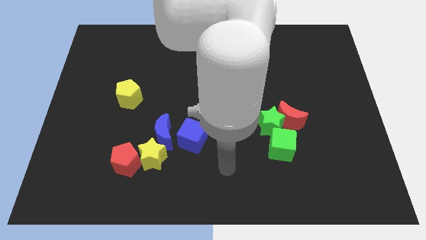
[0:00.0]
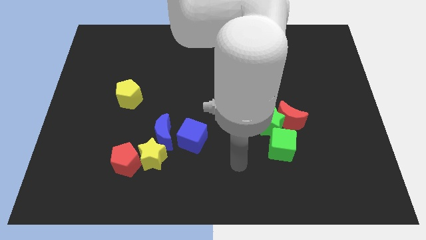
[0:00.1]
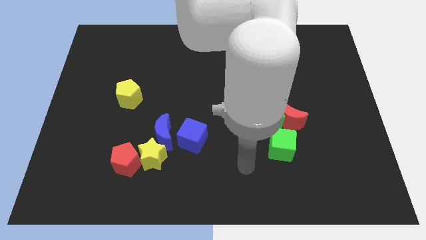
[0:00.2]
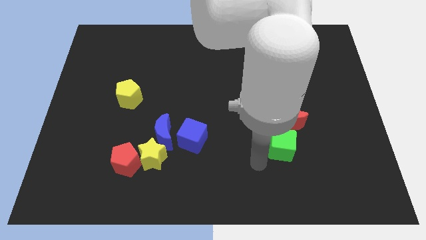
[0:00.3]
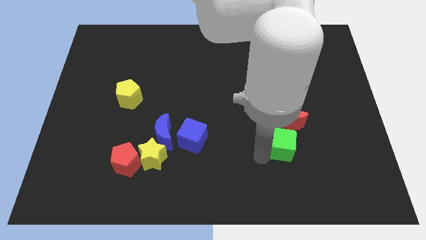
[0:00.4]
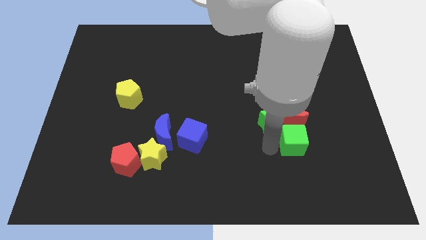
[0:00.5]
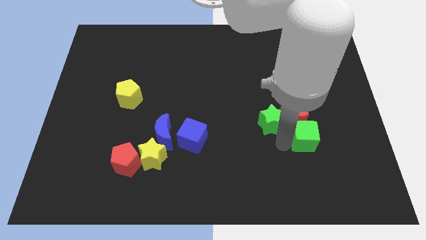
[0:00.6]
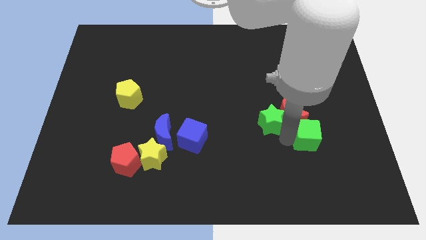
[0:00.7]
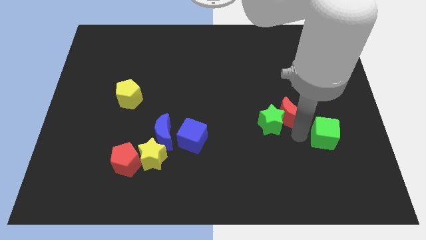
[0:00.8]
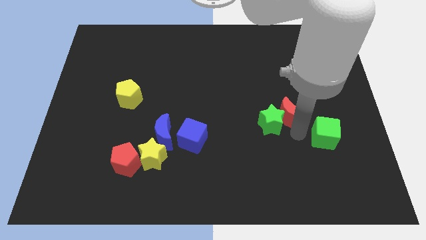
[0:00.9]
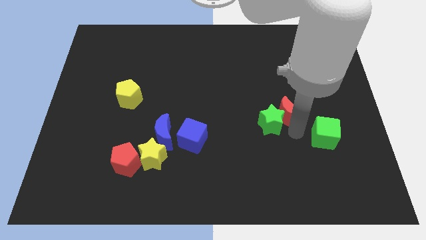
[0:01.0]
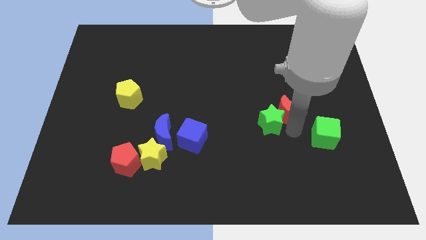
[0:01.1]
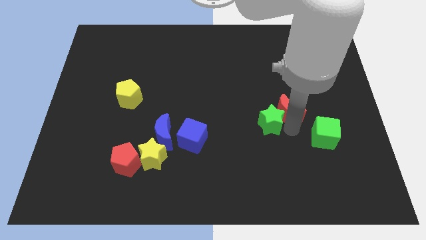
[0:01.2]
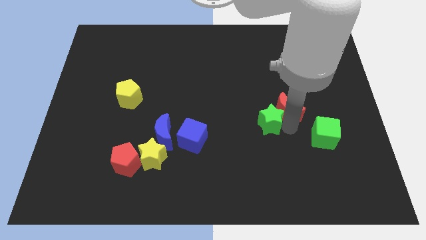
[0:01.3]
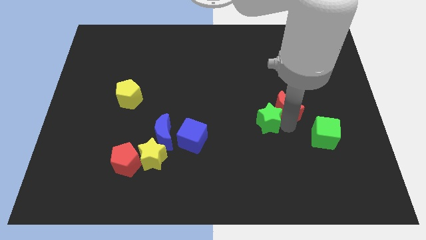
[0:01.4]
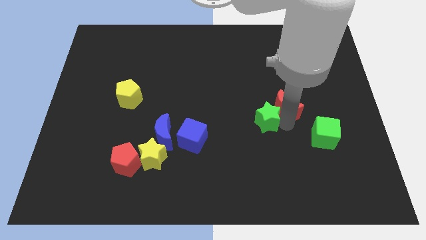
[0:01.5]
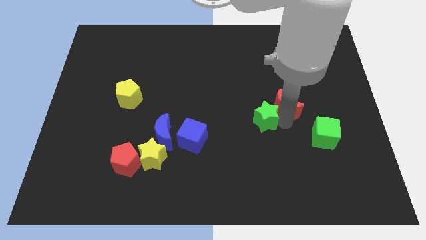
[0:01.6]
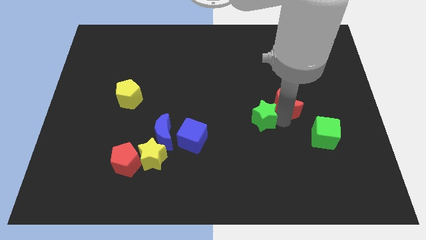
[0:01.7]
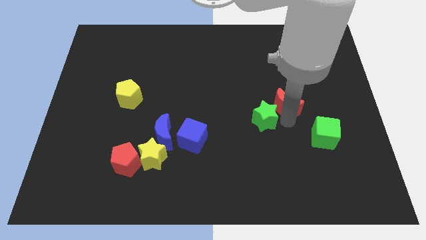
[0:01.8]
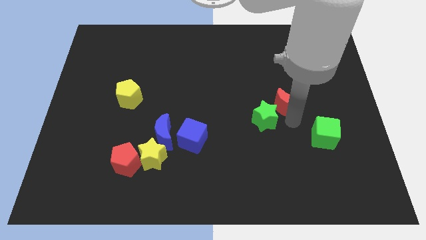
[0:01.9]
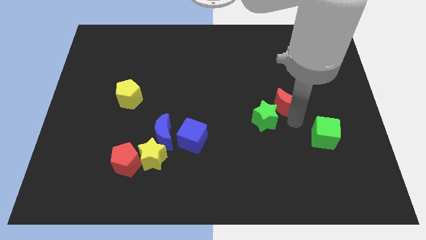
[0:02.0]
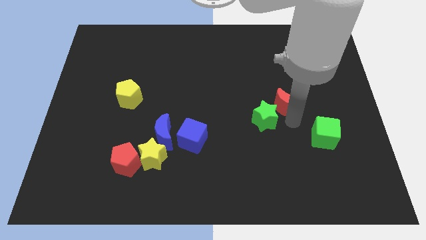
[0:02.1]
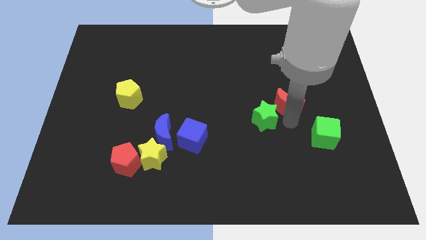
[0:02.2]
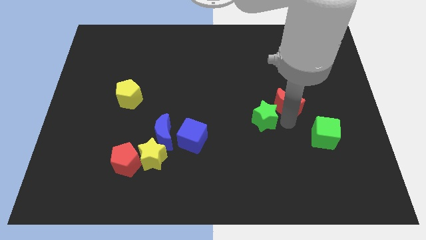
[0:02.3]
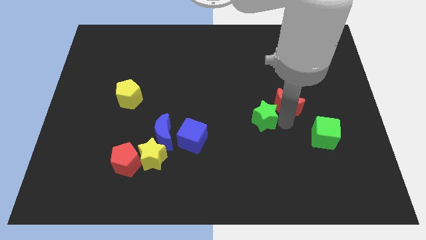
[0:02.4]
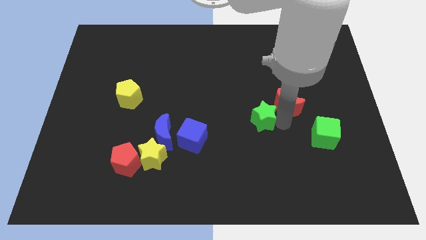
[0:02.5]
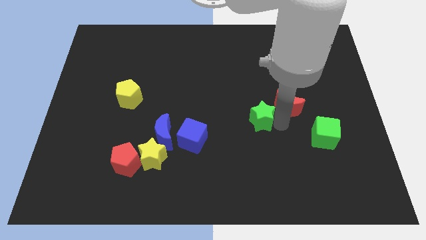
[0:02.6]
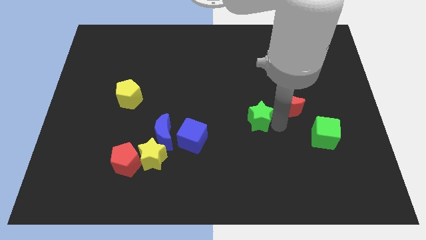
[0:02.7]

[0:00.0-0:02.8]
move the green star away from the red moon and green cube

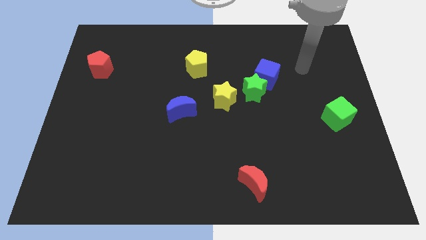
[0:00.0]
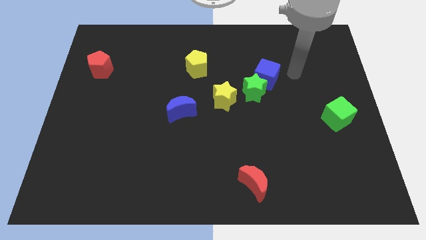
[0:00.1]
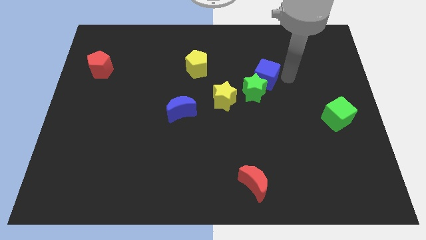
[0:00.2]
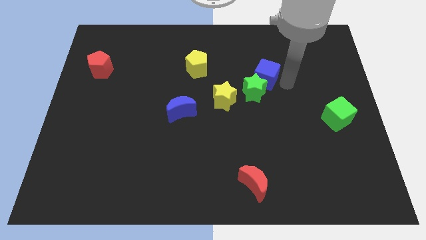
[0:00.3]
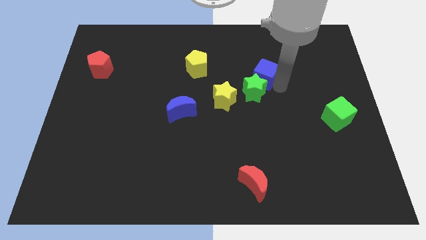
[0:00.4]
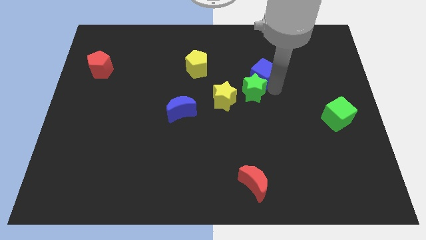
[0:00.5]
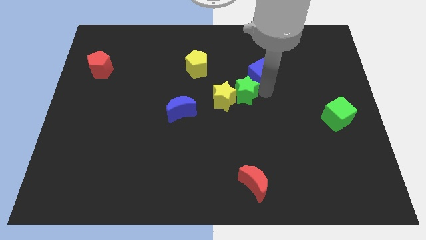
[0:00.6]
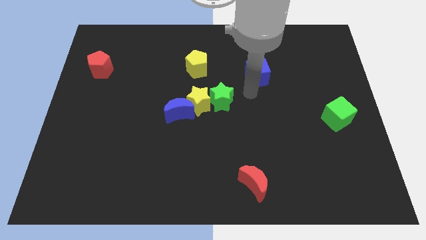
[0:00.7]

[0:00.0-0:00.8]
move the blue cube away from the green star

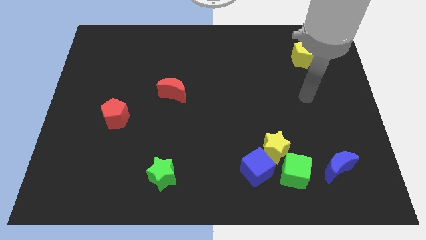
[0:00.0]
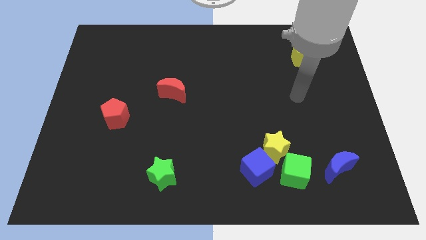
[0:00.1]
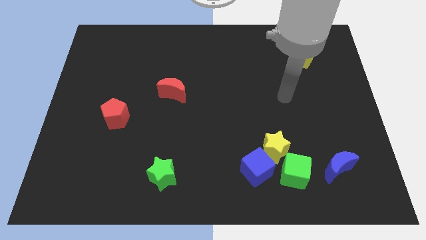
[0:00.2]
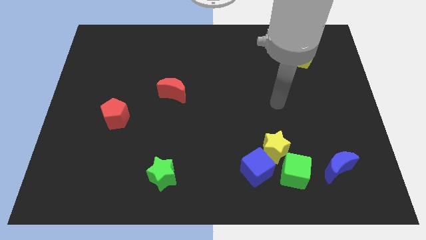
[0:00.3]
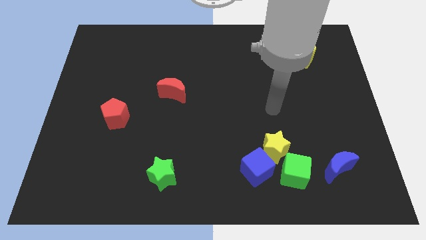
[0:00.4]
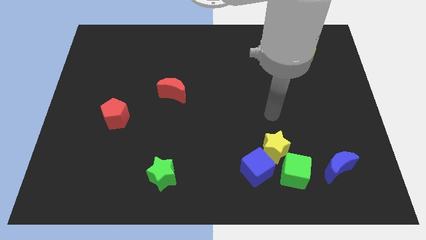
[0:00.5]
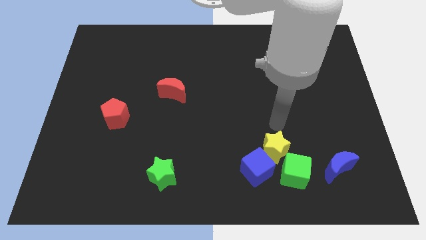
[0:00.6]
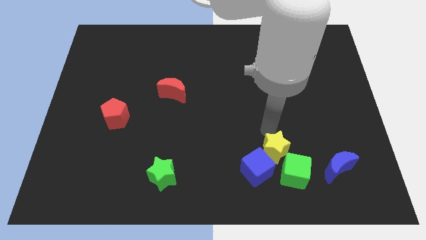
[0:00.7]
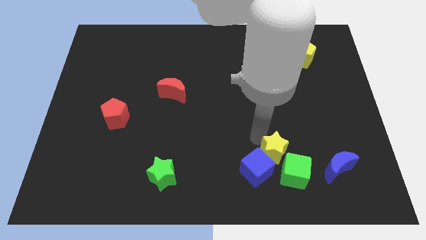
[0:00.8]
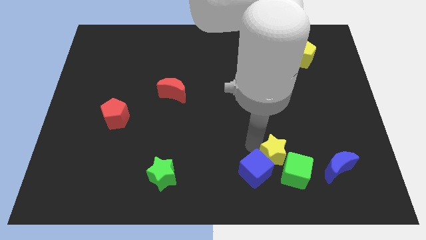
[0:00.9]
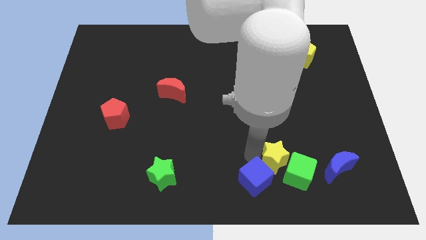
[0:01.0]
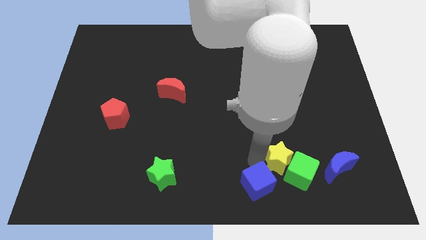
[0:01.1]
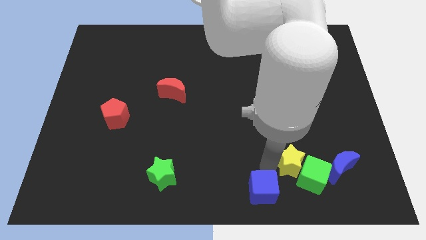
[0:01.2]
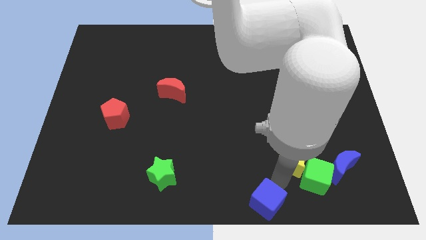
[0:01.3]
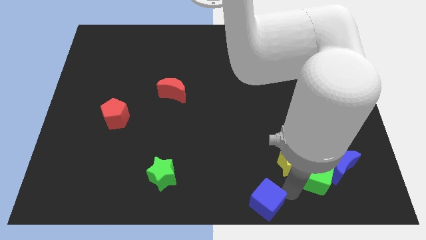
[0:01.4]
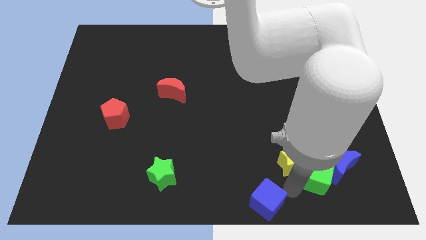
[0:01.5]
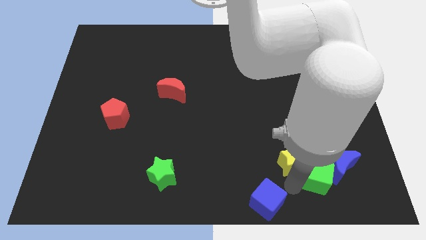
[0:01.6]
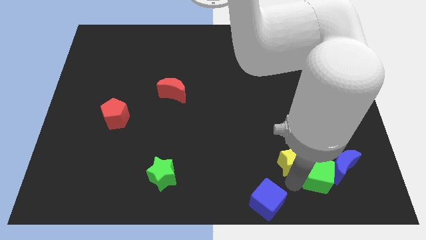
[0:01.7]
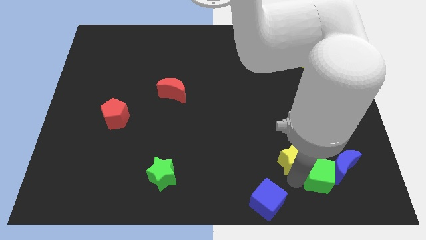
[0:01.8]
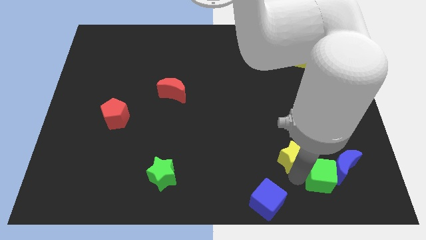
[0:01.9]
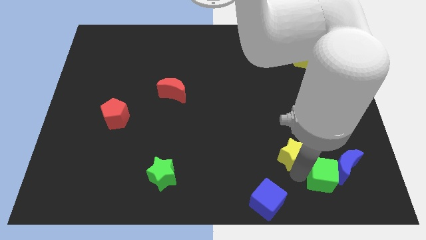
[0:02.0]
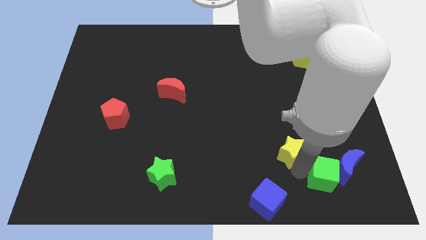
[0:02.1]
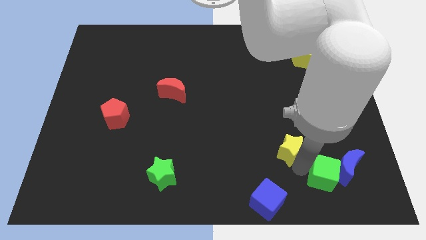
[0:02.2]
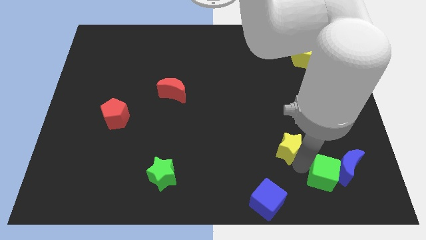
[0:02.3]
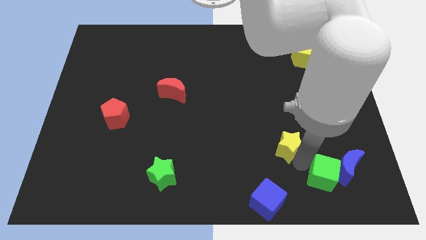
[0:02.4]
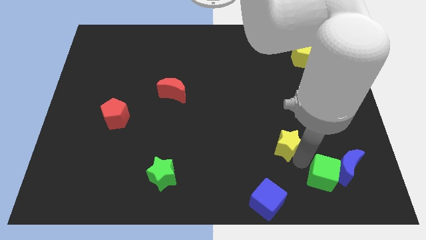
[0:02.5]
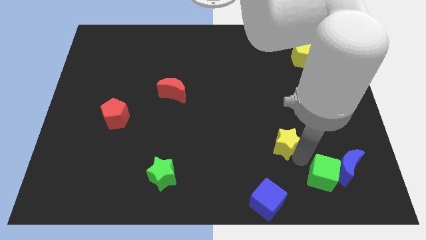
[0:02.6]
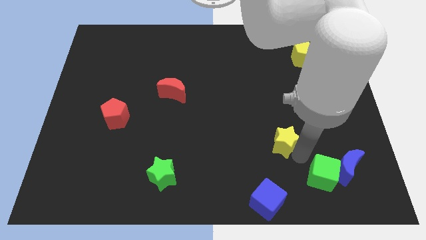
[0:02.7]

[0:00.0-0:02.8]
pull the yellow star apart from the blue cube and green cube

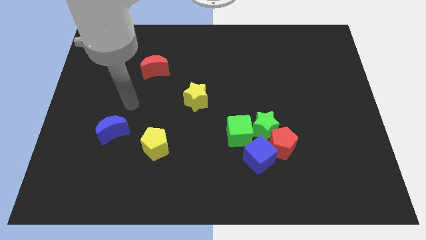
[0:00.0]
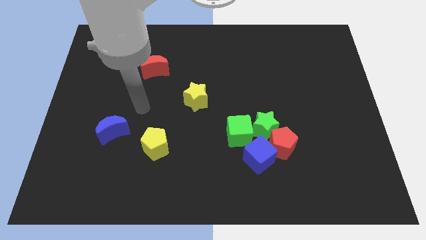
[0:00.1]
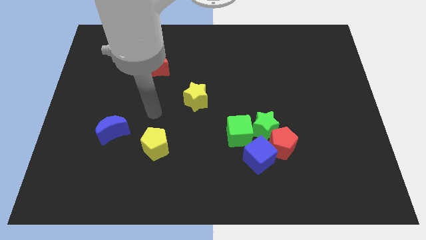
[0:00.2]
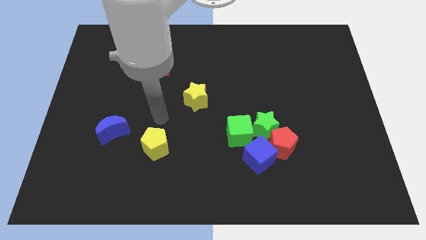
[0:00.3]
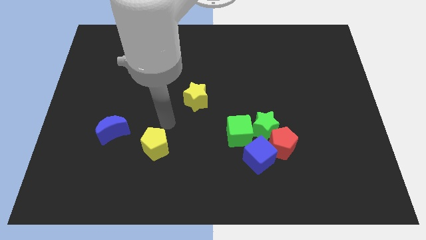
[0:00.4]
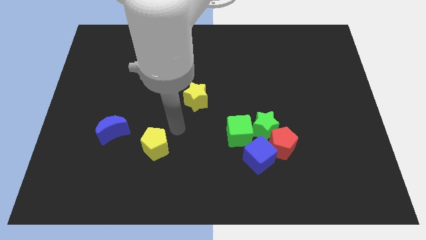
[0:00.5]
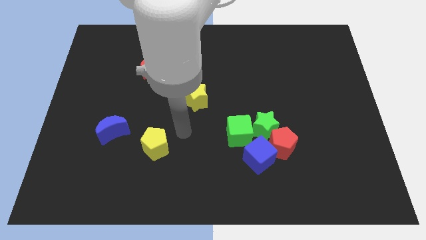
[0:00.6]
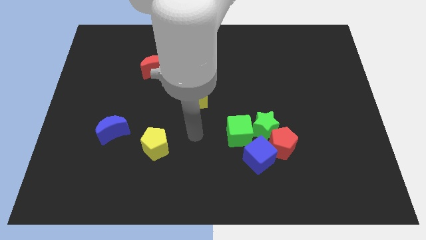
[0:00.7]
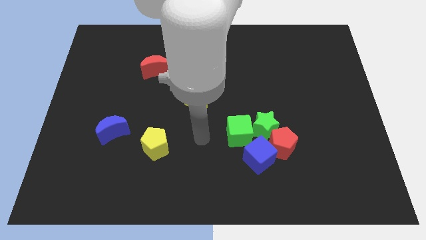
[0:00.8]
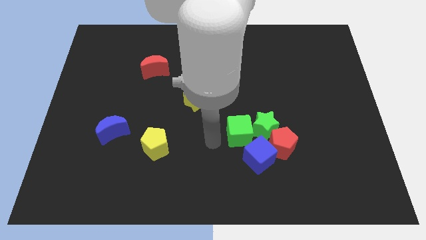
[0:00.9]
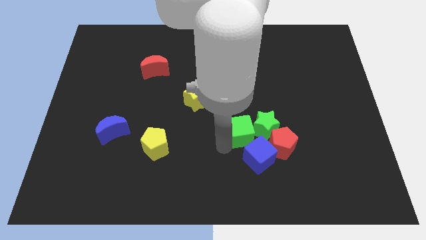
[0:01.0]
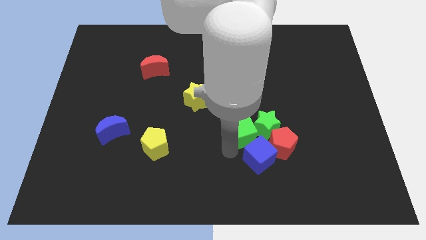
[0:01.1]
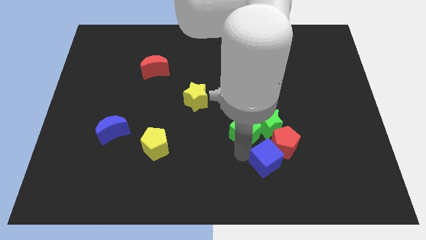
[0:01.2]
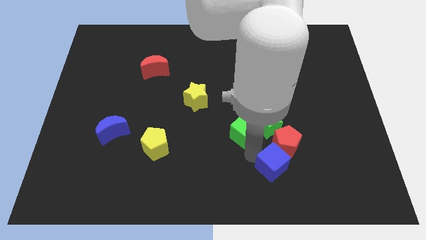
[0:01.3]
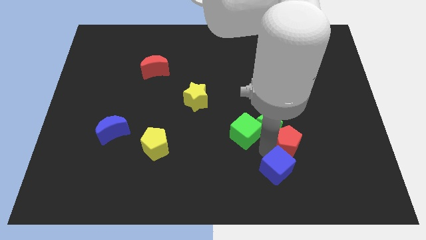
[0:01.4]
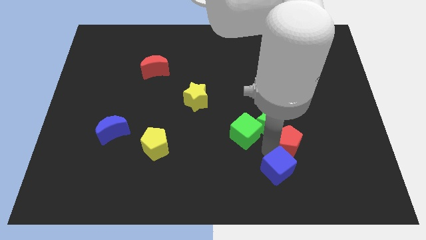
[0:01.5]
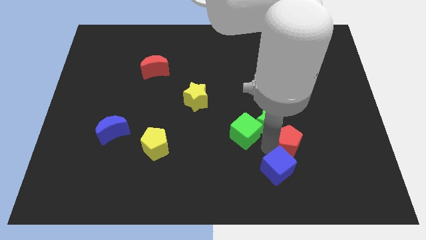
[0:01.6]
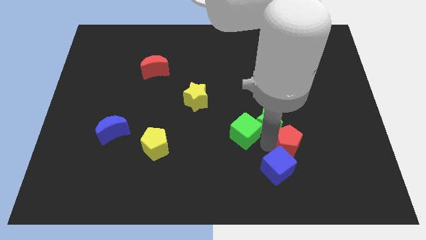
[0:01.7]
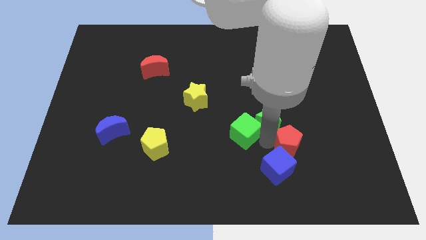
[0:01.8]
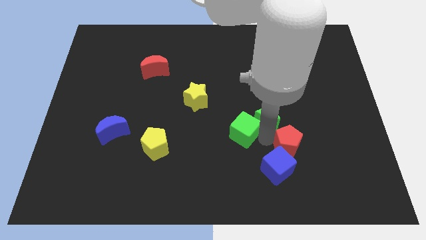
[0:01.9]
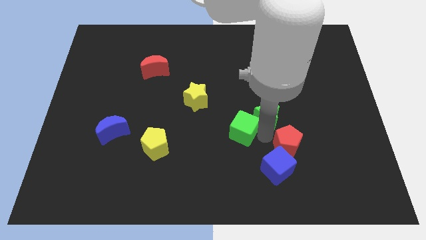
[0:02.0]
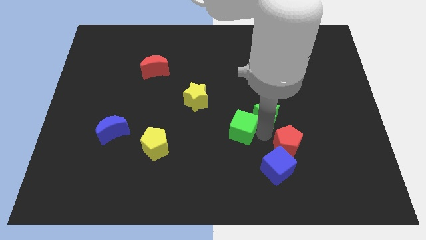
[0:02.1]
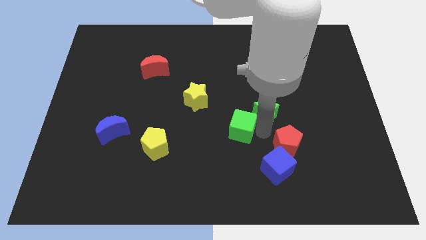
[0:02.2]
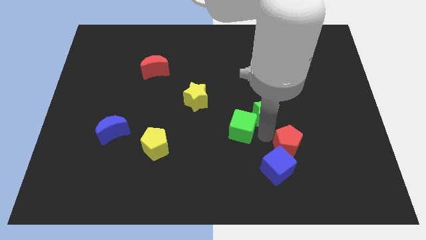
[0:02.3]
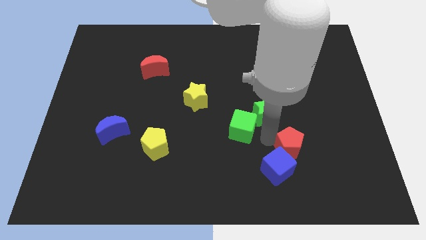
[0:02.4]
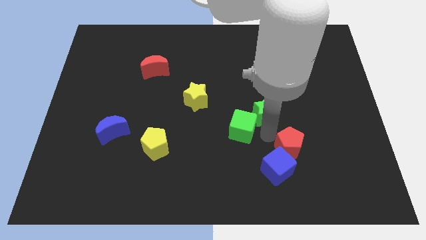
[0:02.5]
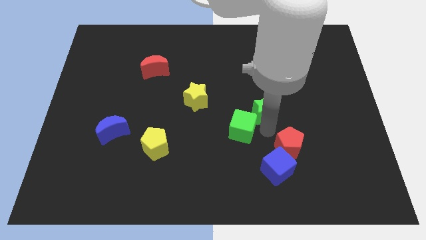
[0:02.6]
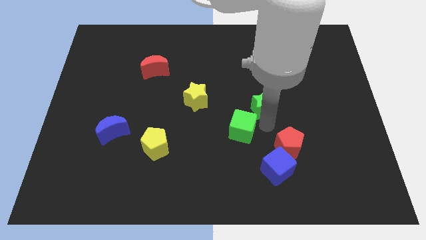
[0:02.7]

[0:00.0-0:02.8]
move the green star away from the group of blocks
